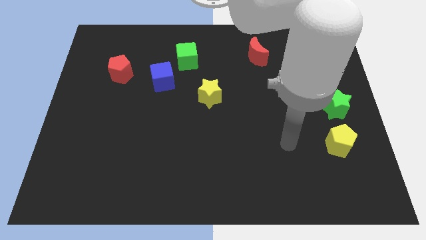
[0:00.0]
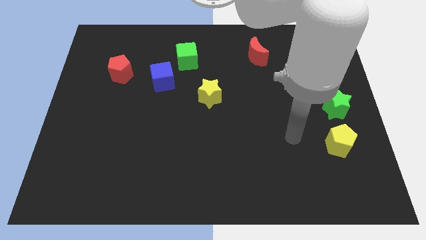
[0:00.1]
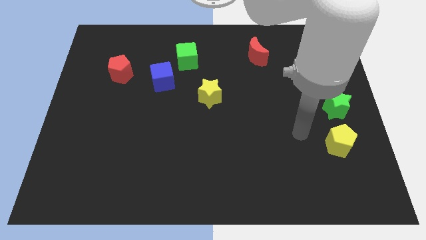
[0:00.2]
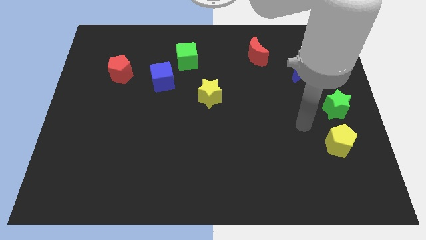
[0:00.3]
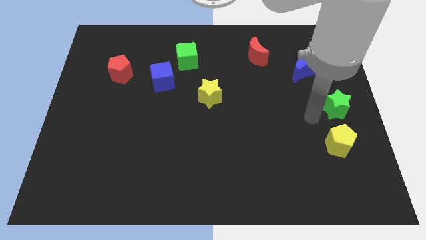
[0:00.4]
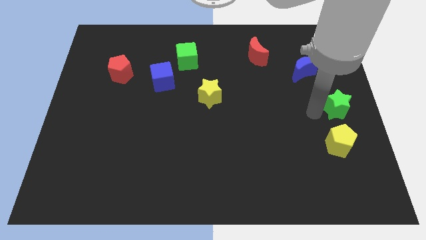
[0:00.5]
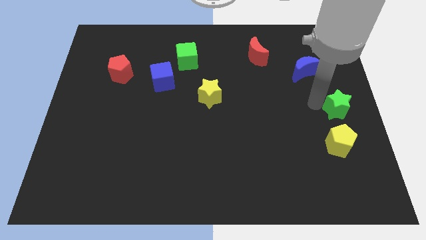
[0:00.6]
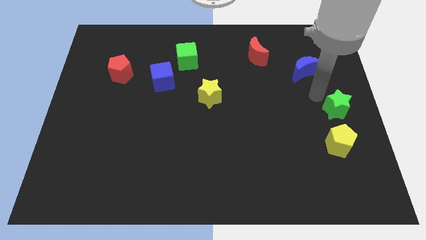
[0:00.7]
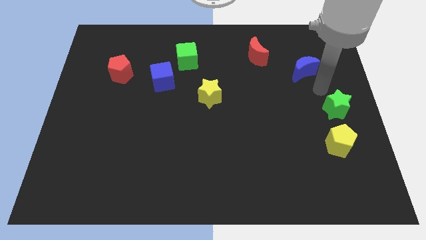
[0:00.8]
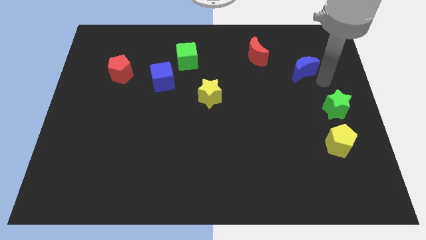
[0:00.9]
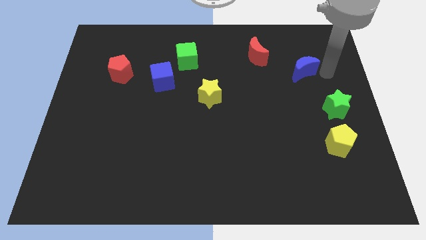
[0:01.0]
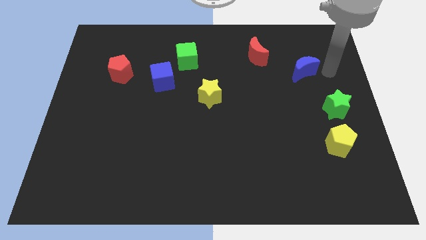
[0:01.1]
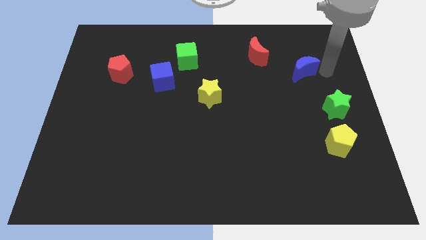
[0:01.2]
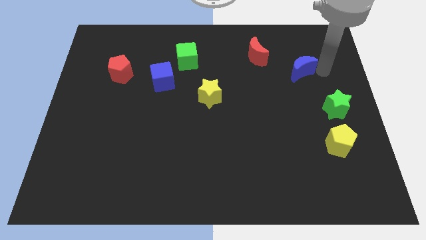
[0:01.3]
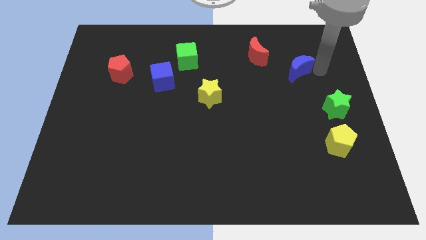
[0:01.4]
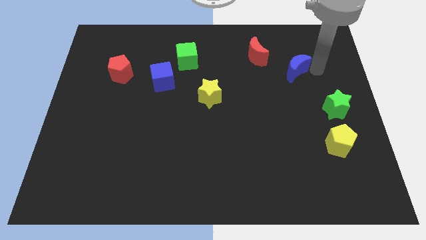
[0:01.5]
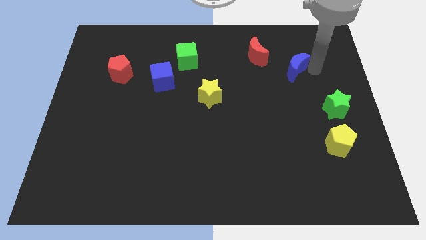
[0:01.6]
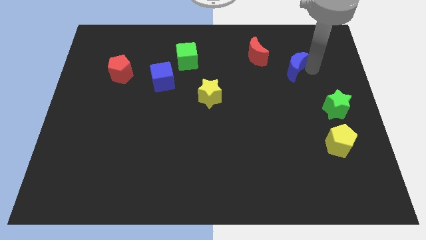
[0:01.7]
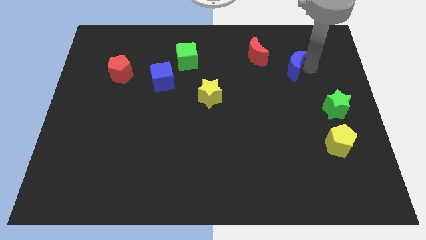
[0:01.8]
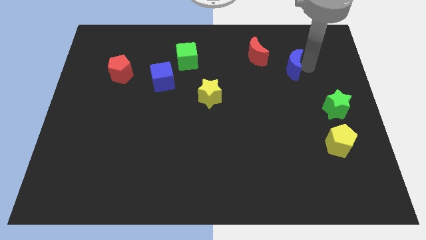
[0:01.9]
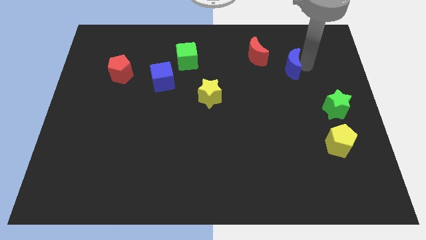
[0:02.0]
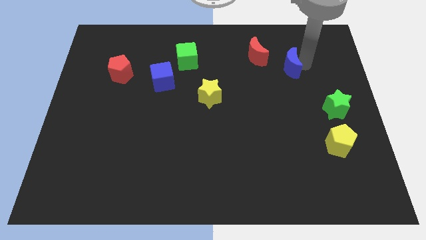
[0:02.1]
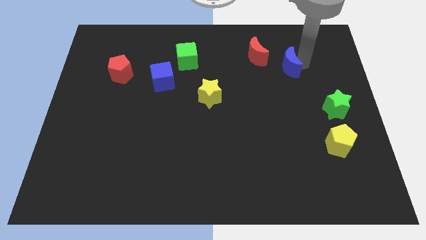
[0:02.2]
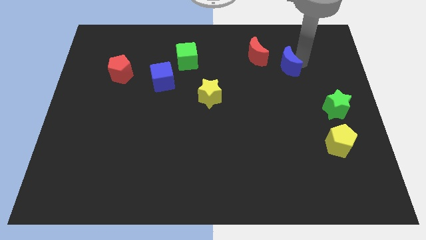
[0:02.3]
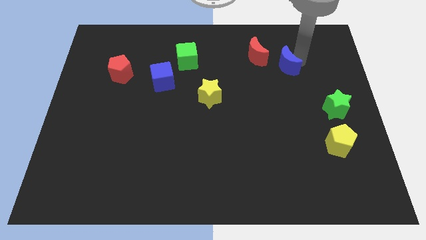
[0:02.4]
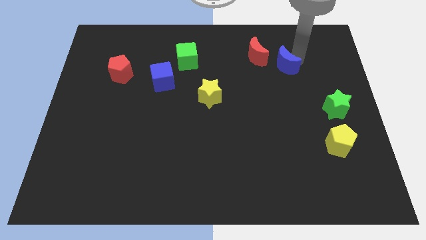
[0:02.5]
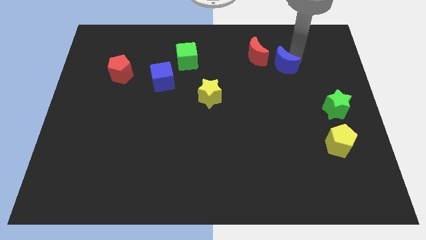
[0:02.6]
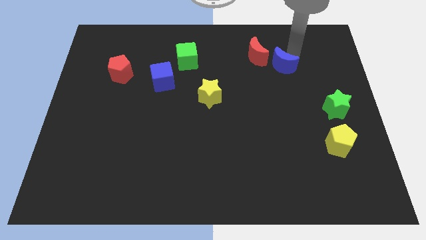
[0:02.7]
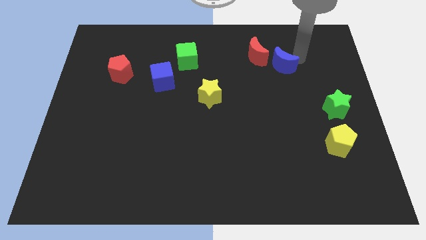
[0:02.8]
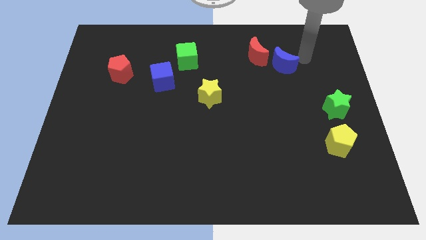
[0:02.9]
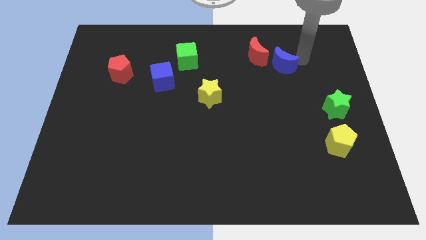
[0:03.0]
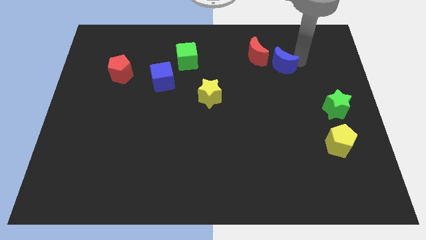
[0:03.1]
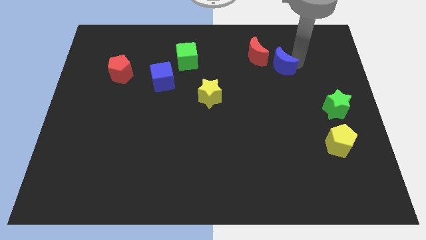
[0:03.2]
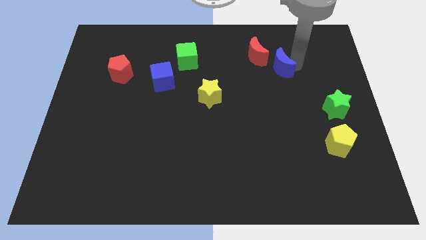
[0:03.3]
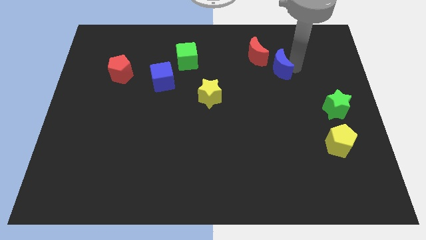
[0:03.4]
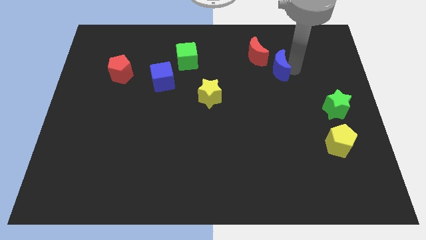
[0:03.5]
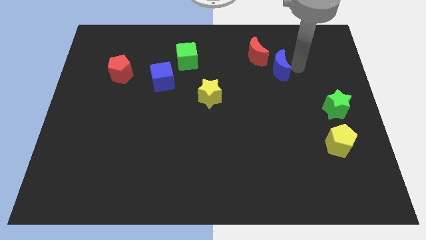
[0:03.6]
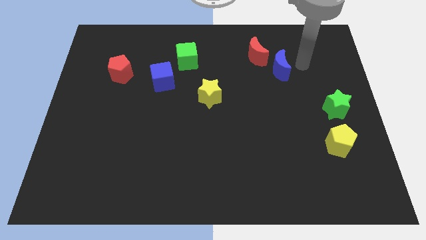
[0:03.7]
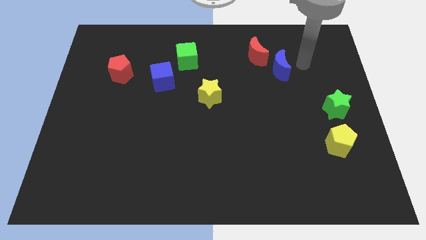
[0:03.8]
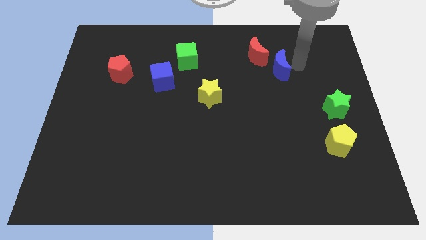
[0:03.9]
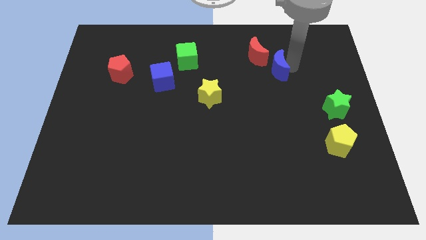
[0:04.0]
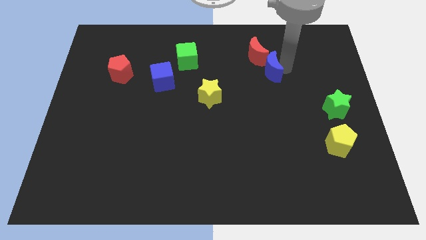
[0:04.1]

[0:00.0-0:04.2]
move the blue moon somewhat to the left

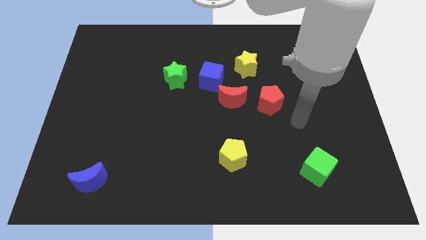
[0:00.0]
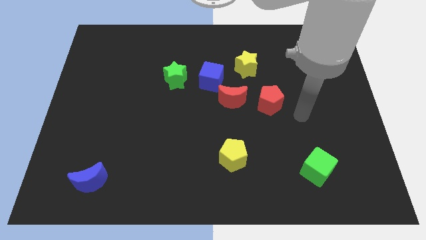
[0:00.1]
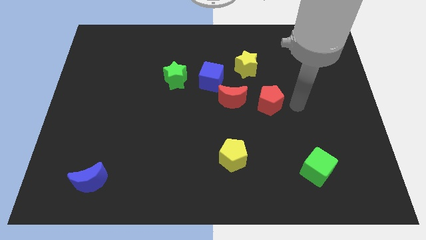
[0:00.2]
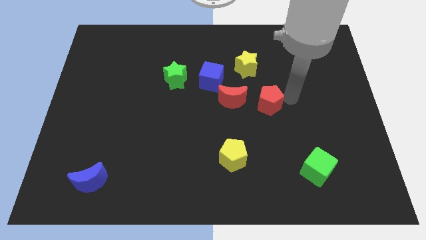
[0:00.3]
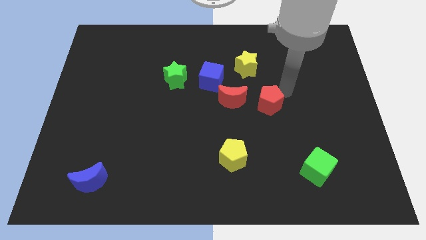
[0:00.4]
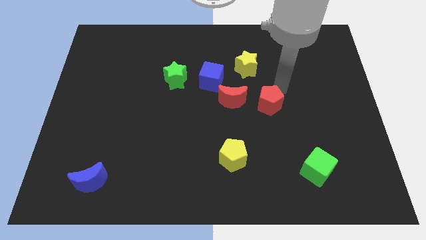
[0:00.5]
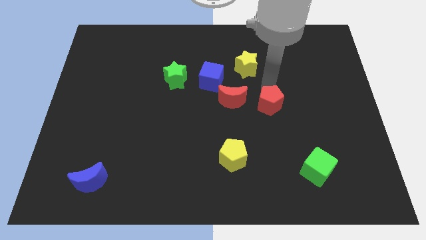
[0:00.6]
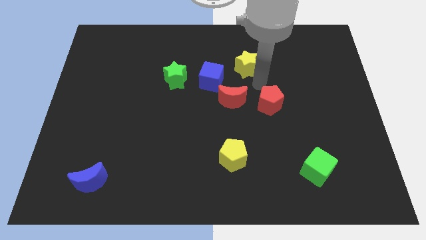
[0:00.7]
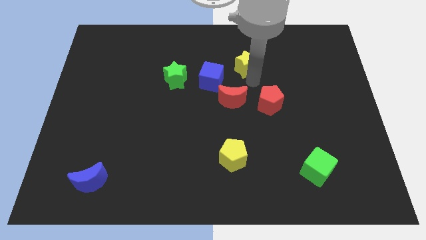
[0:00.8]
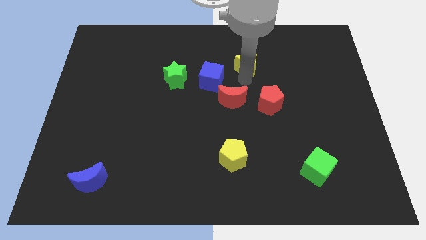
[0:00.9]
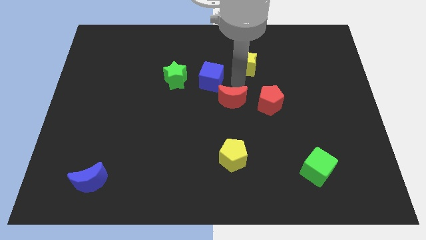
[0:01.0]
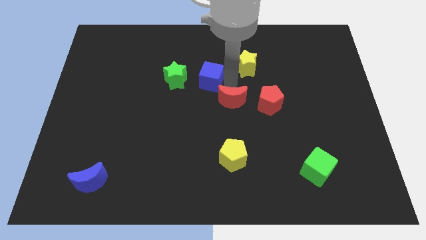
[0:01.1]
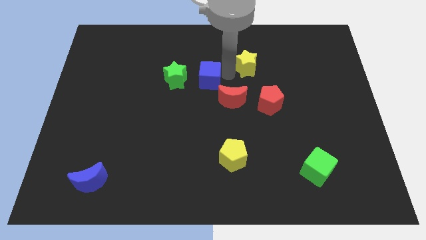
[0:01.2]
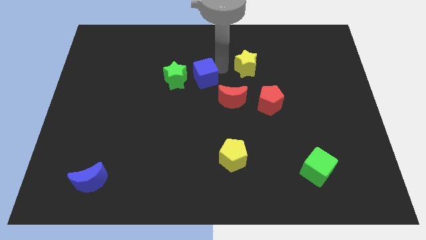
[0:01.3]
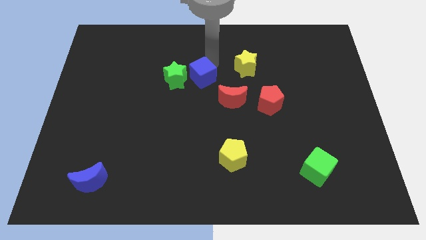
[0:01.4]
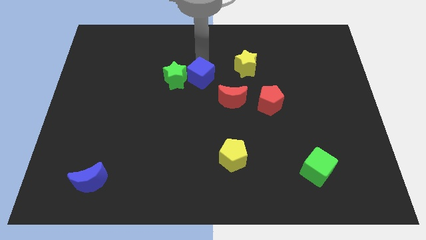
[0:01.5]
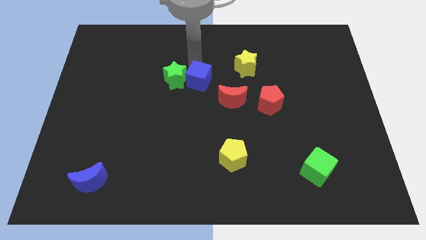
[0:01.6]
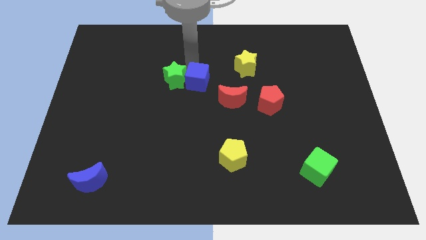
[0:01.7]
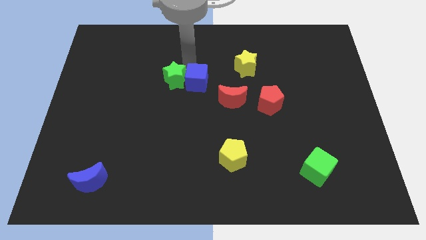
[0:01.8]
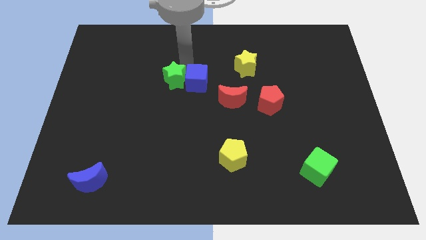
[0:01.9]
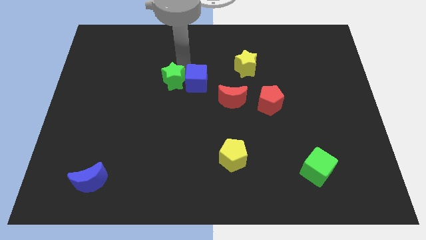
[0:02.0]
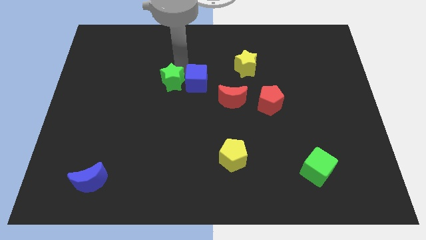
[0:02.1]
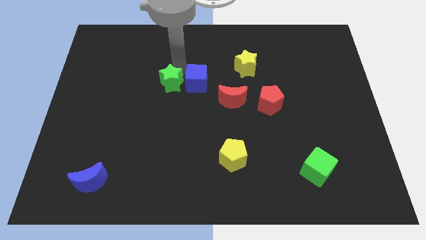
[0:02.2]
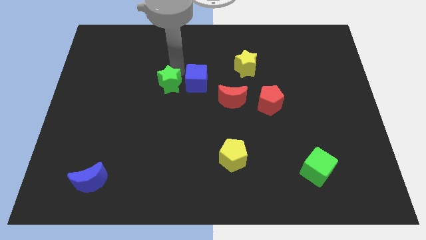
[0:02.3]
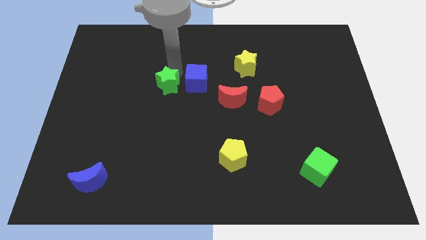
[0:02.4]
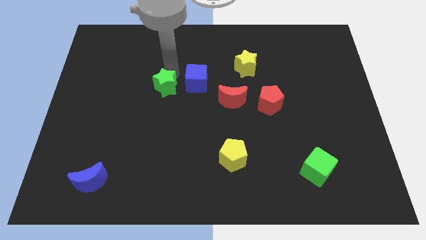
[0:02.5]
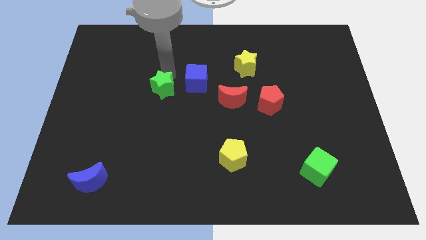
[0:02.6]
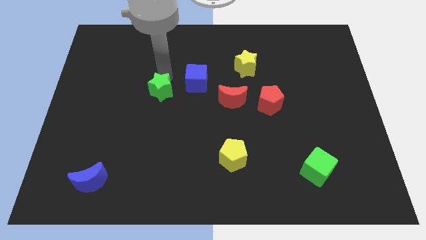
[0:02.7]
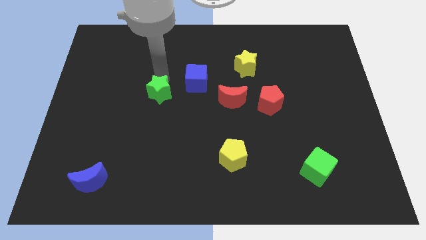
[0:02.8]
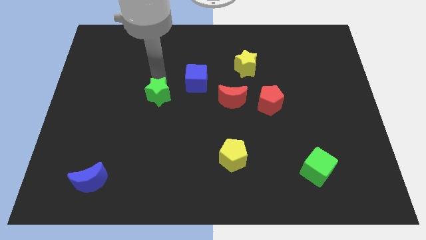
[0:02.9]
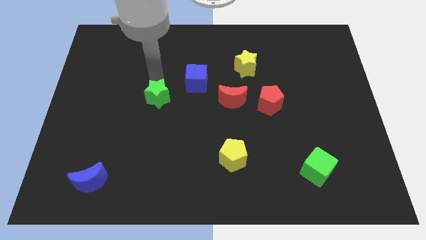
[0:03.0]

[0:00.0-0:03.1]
slightly move the green star diagonally down and left

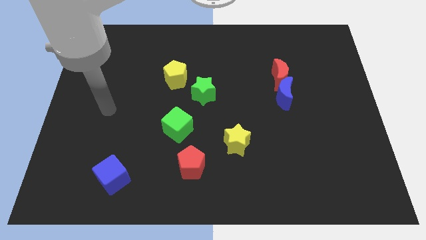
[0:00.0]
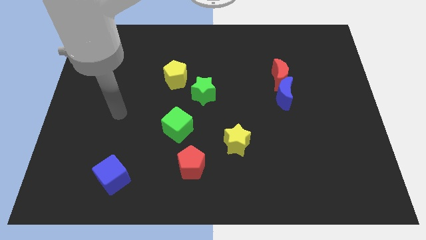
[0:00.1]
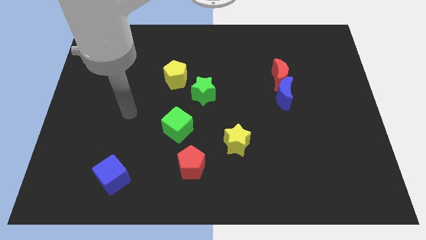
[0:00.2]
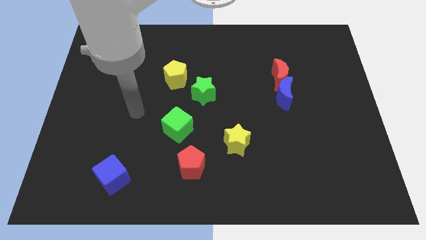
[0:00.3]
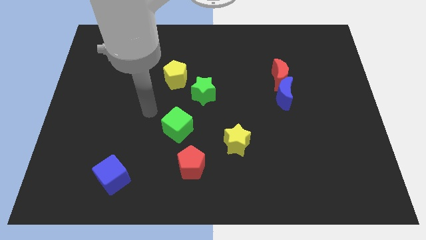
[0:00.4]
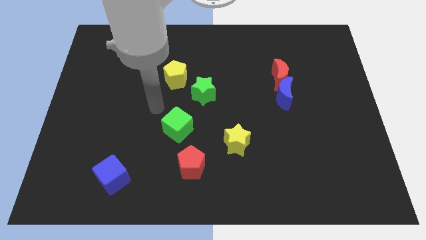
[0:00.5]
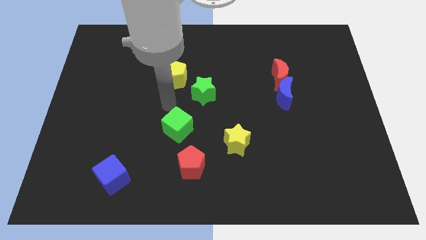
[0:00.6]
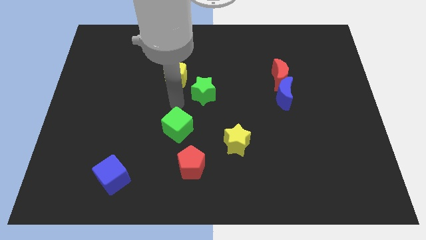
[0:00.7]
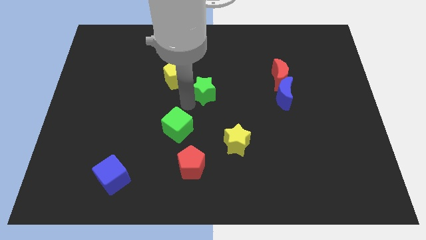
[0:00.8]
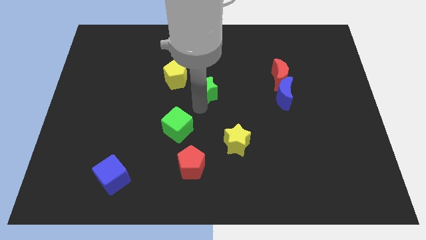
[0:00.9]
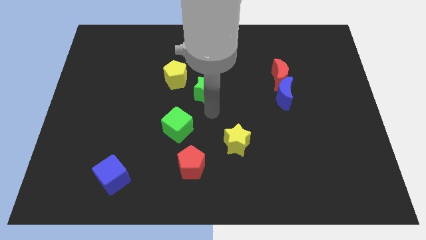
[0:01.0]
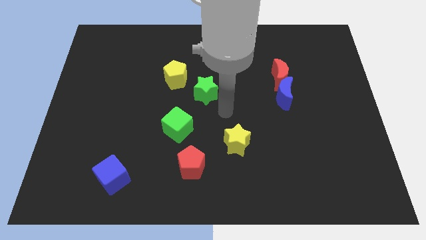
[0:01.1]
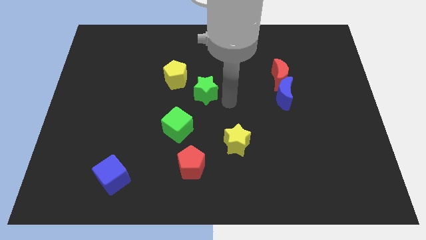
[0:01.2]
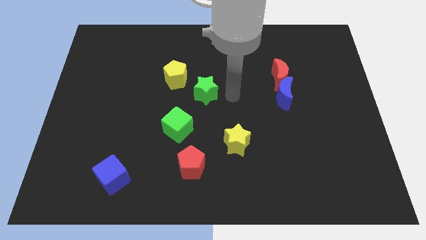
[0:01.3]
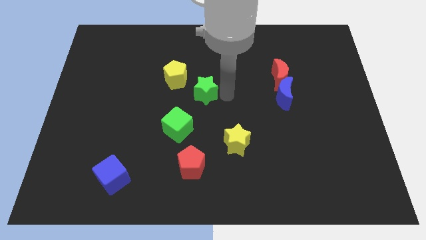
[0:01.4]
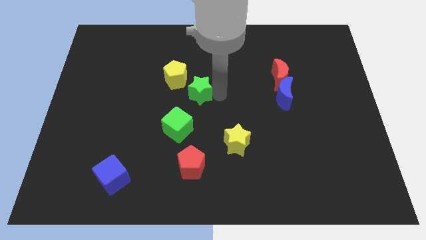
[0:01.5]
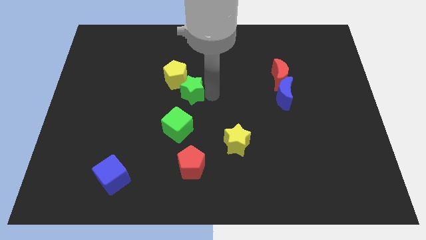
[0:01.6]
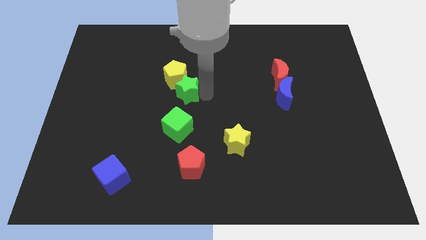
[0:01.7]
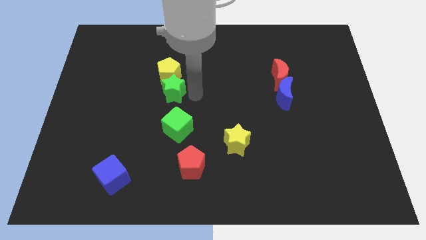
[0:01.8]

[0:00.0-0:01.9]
slightly push the green star to the left
